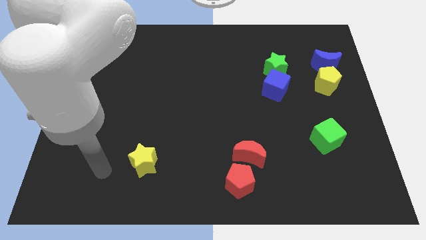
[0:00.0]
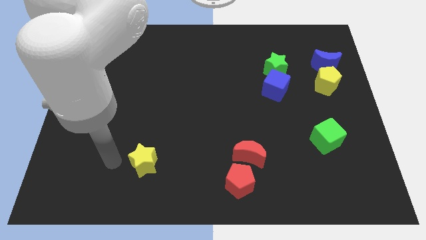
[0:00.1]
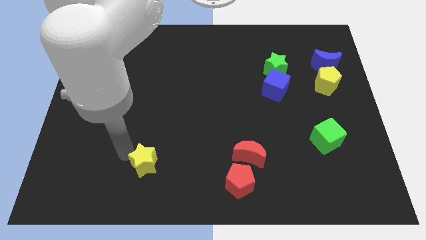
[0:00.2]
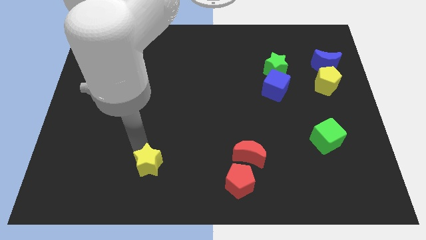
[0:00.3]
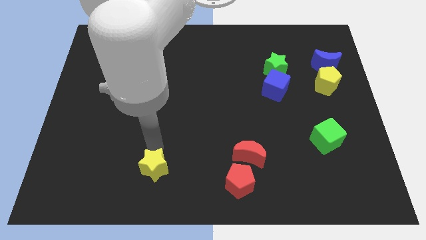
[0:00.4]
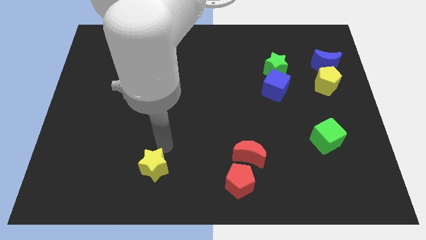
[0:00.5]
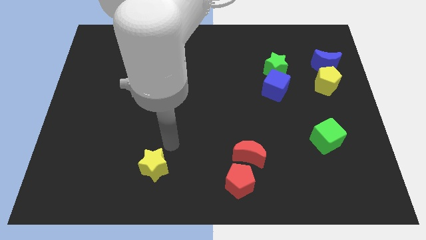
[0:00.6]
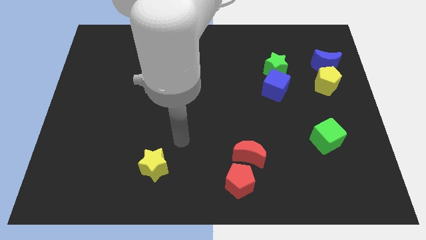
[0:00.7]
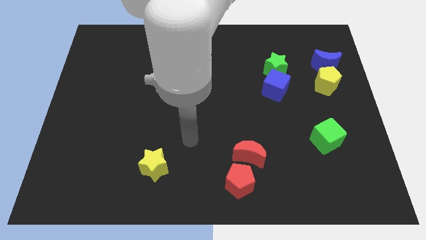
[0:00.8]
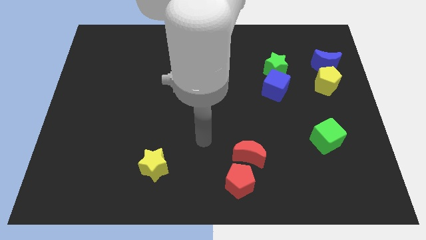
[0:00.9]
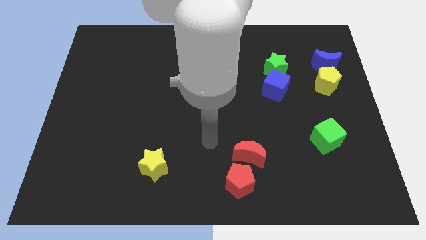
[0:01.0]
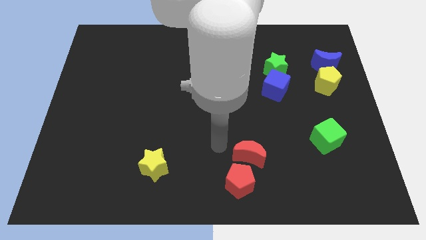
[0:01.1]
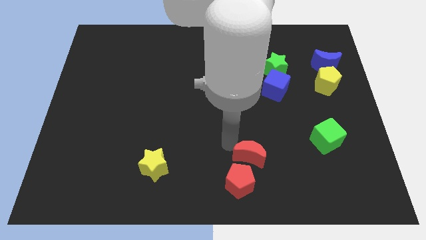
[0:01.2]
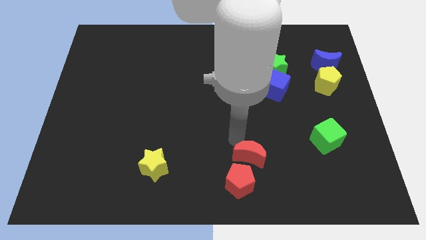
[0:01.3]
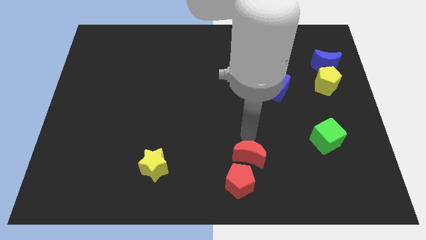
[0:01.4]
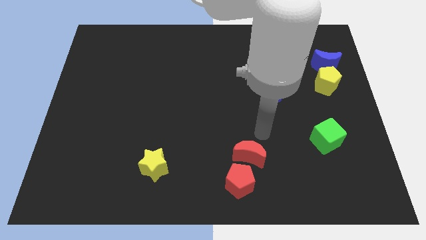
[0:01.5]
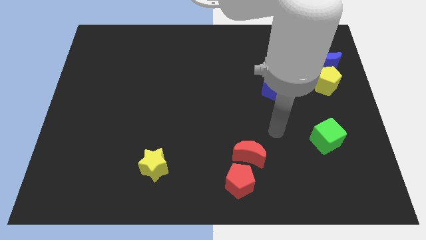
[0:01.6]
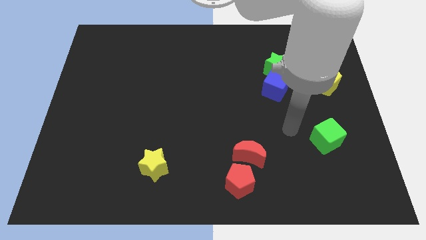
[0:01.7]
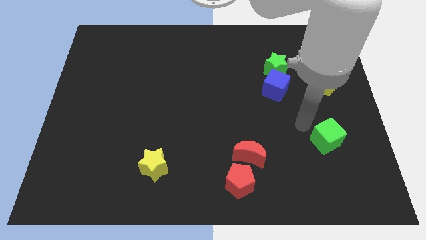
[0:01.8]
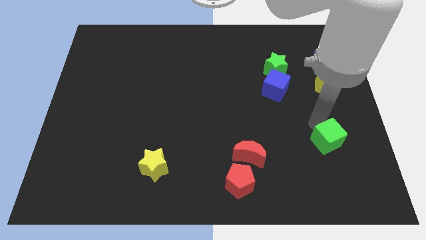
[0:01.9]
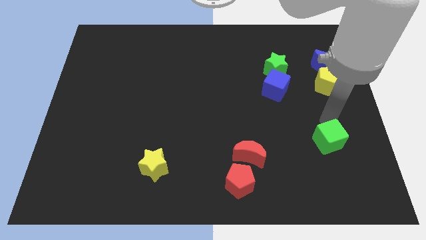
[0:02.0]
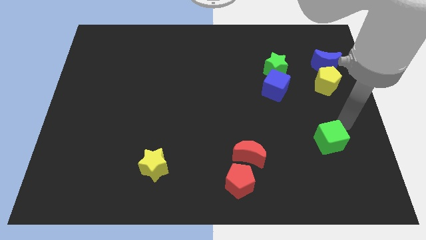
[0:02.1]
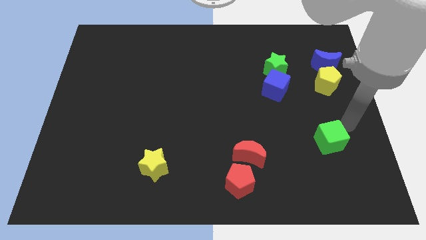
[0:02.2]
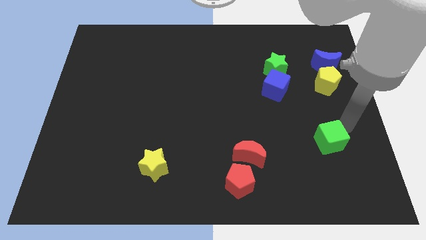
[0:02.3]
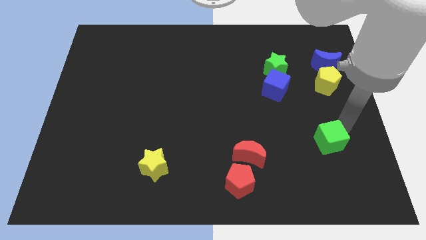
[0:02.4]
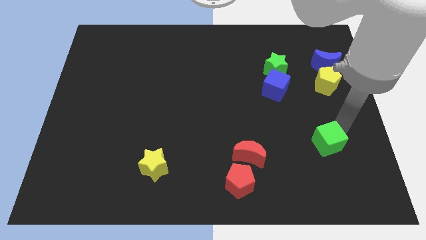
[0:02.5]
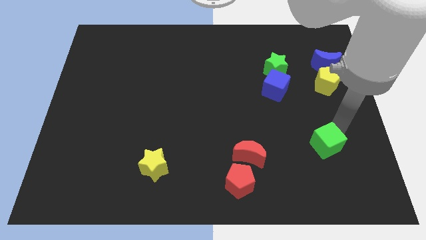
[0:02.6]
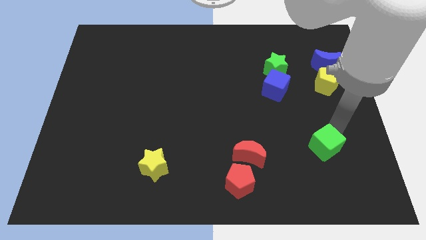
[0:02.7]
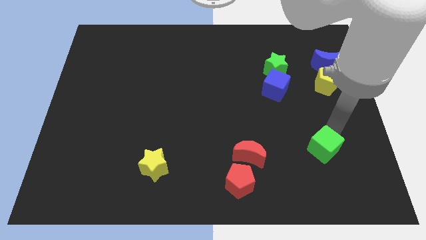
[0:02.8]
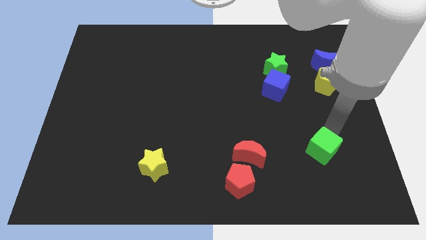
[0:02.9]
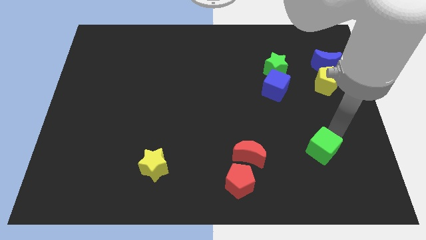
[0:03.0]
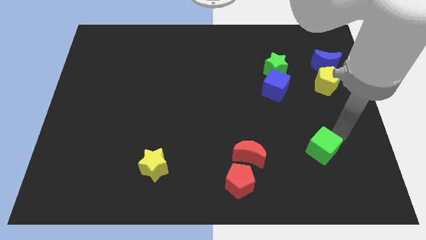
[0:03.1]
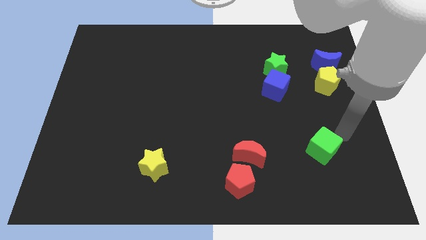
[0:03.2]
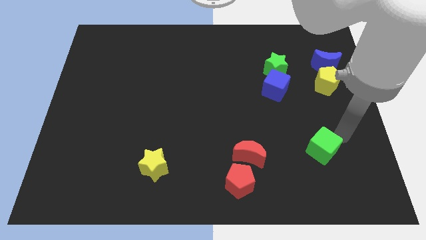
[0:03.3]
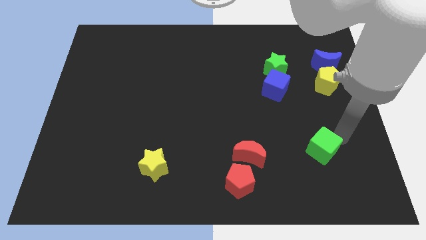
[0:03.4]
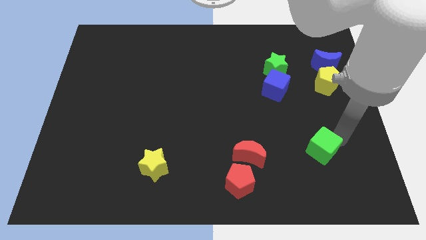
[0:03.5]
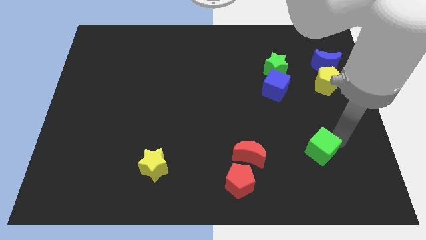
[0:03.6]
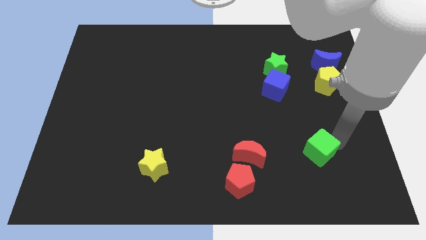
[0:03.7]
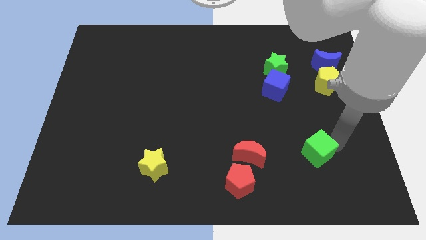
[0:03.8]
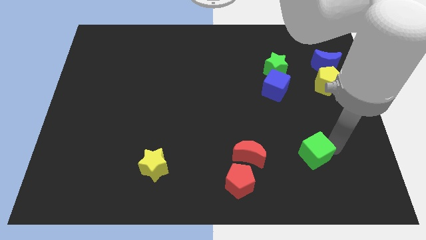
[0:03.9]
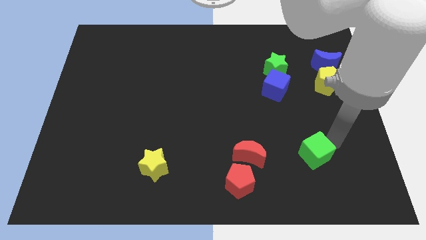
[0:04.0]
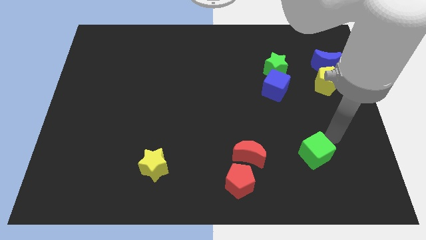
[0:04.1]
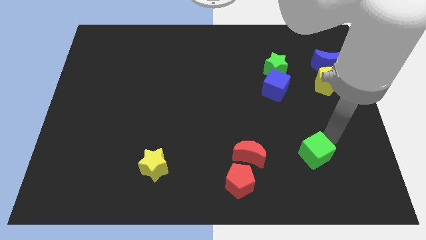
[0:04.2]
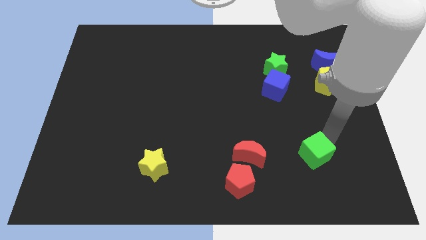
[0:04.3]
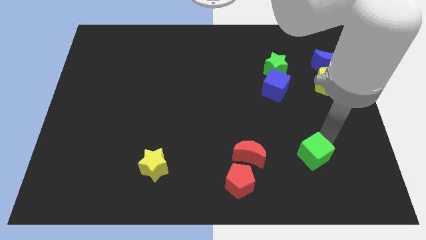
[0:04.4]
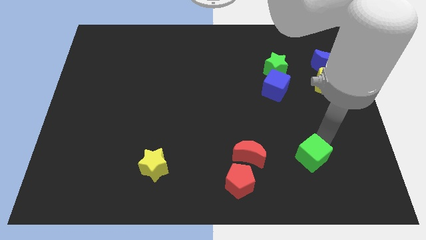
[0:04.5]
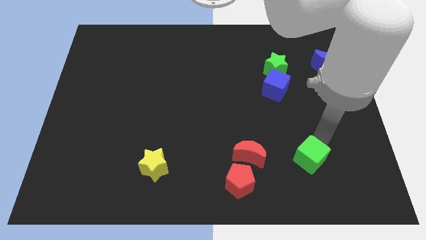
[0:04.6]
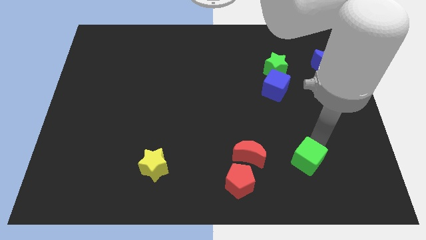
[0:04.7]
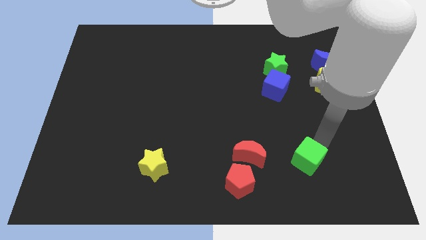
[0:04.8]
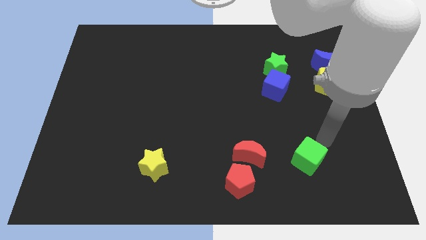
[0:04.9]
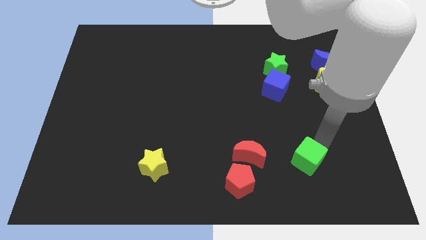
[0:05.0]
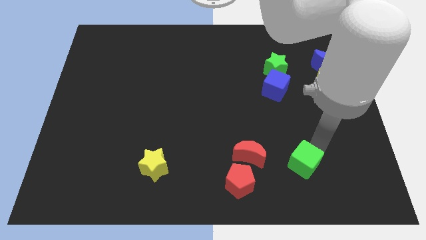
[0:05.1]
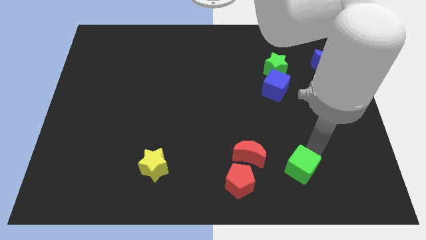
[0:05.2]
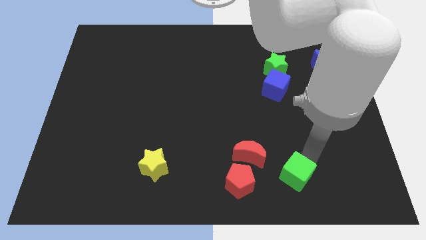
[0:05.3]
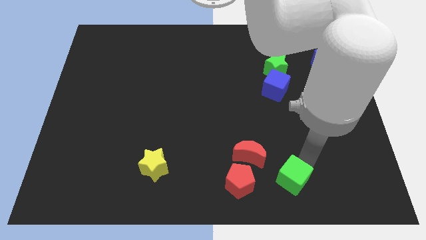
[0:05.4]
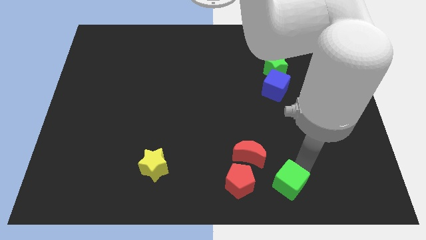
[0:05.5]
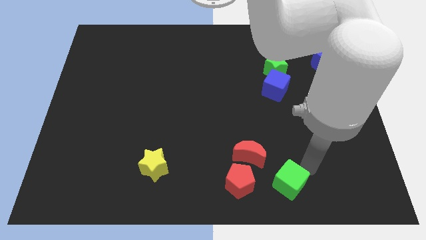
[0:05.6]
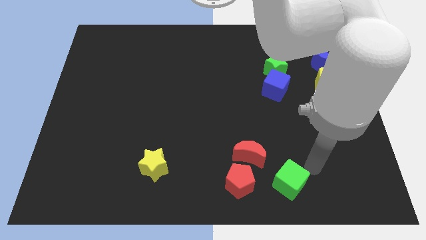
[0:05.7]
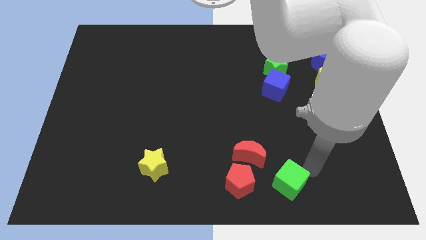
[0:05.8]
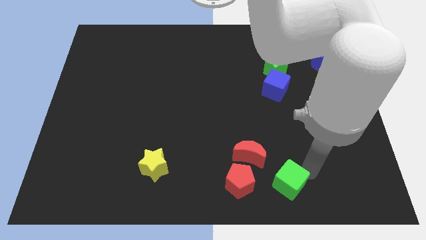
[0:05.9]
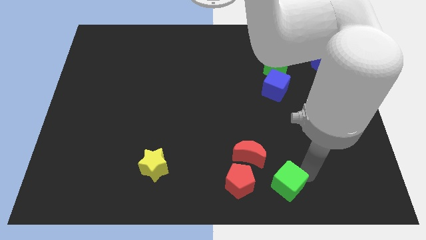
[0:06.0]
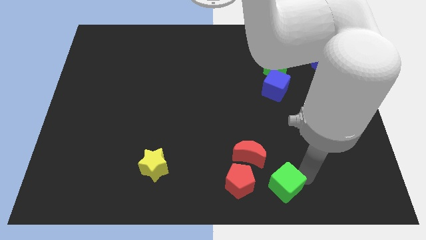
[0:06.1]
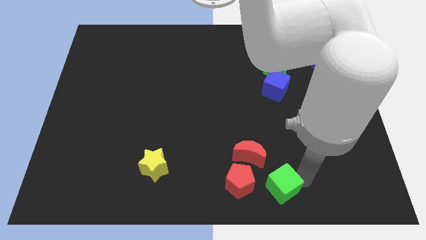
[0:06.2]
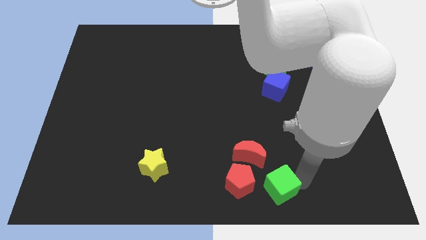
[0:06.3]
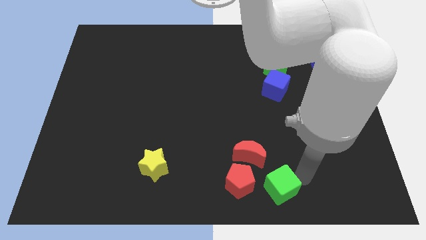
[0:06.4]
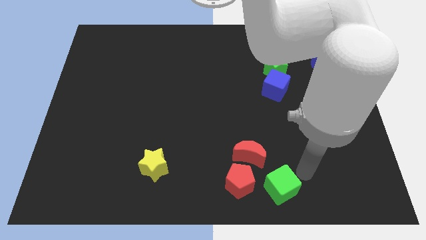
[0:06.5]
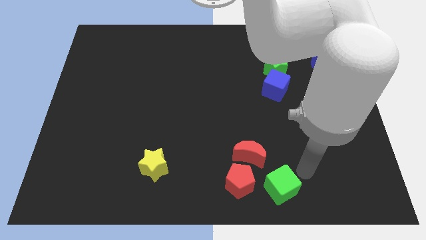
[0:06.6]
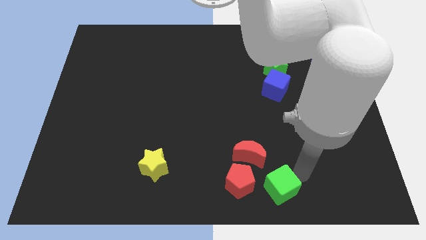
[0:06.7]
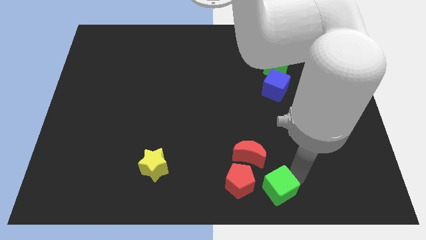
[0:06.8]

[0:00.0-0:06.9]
put the green cube to the bottom
